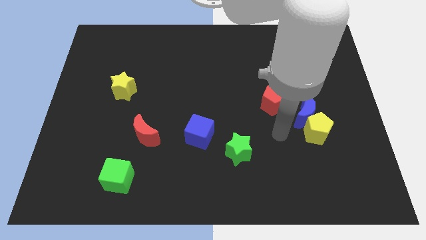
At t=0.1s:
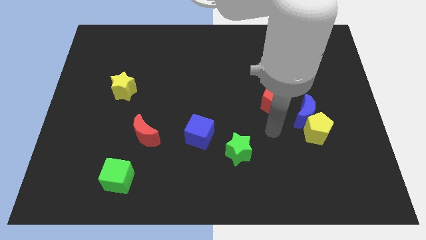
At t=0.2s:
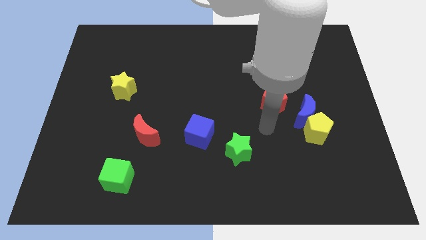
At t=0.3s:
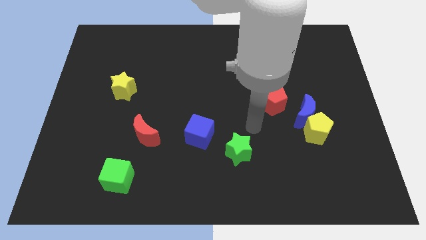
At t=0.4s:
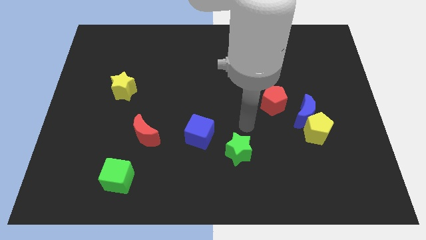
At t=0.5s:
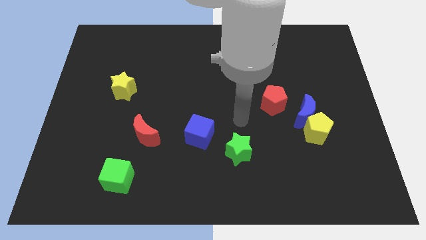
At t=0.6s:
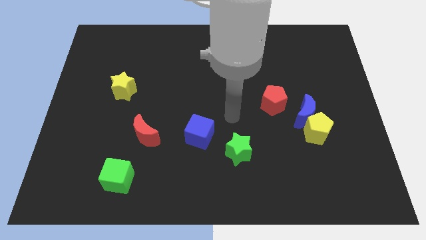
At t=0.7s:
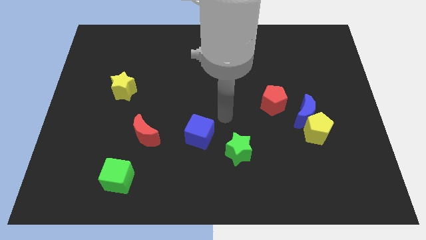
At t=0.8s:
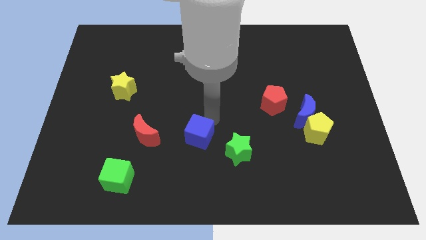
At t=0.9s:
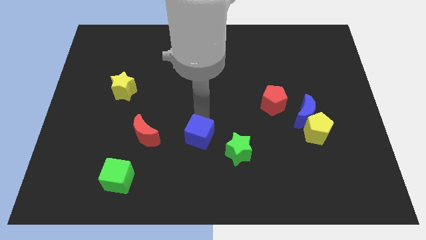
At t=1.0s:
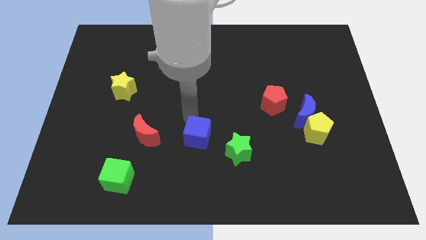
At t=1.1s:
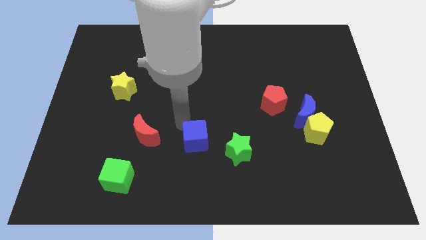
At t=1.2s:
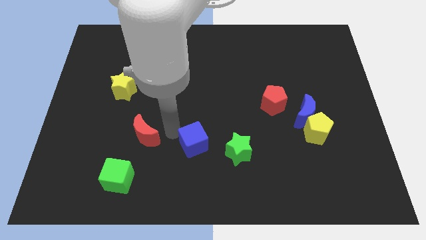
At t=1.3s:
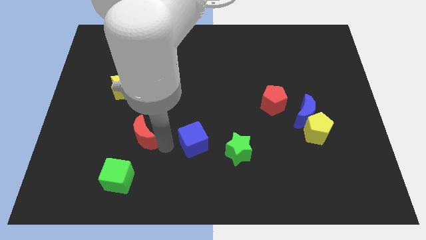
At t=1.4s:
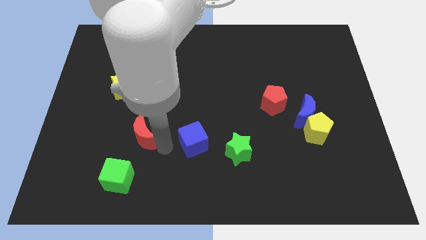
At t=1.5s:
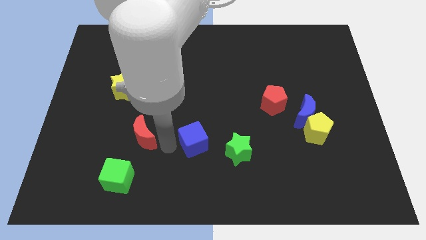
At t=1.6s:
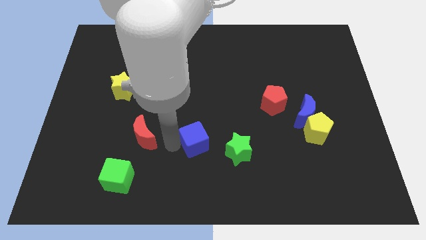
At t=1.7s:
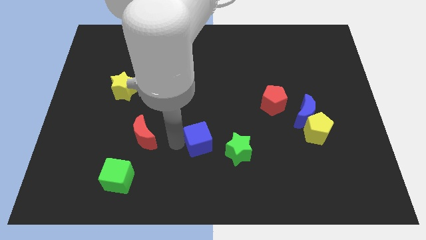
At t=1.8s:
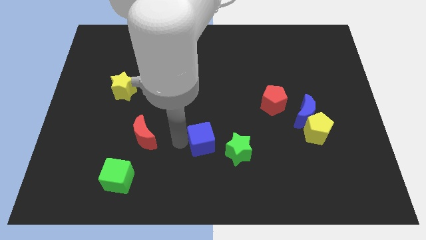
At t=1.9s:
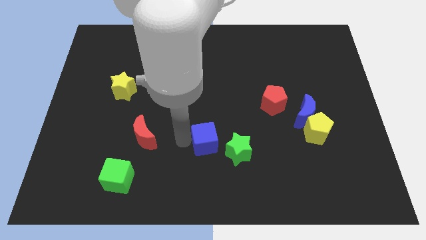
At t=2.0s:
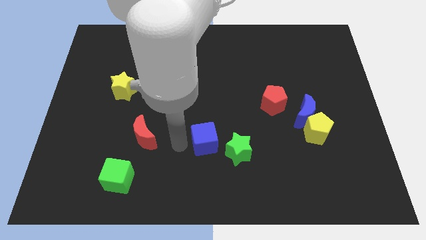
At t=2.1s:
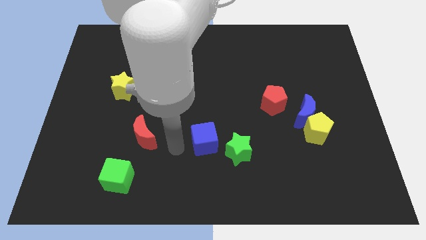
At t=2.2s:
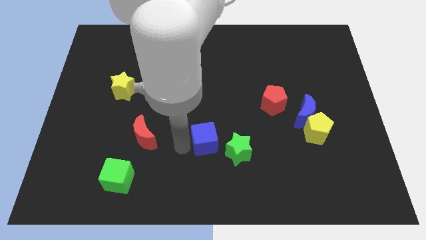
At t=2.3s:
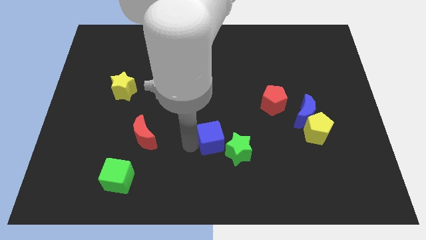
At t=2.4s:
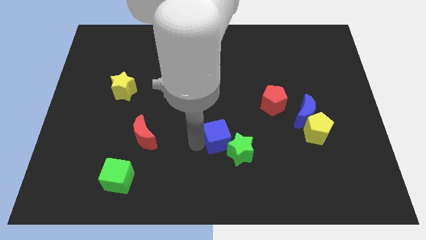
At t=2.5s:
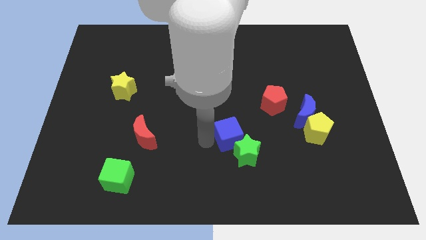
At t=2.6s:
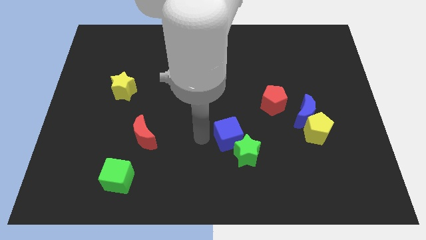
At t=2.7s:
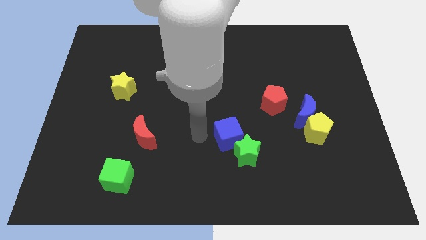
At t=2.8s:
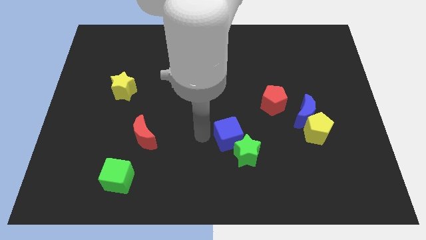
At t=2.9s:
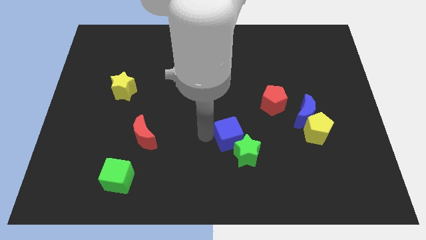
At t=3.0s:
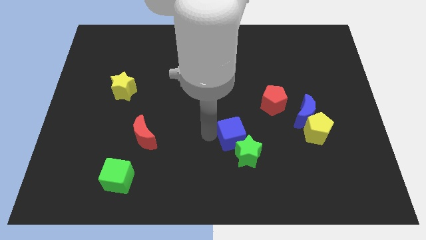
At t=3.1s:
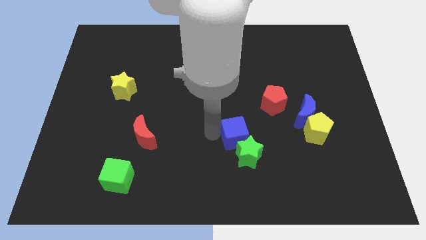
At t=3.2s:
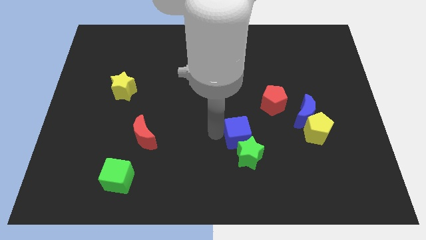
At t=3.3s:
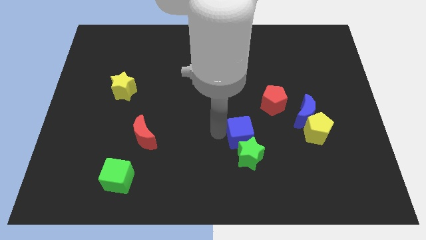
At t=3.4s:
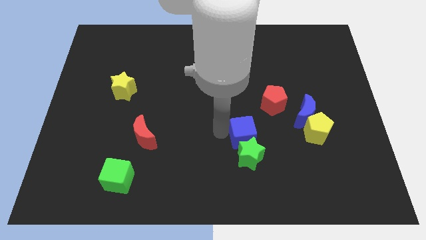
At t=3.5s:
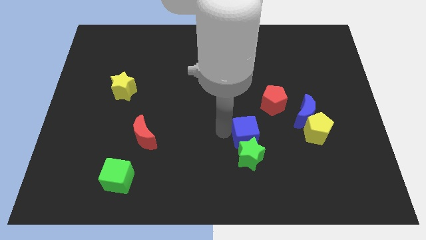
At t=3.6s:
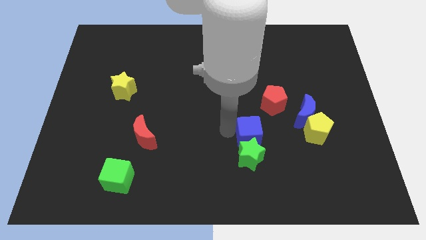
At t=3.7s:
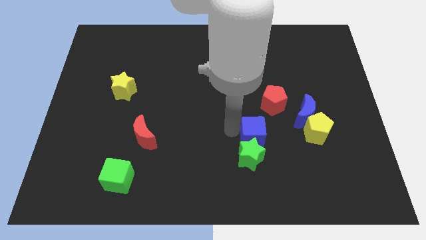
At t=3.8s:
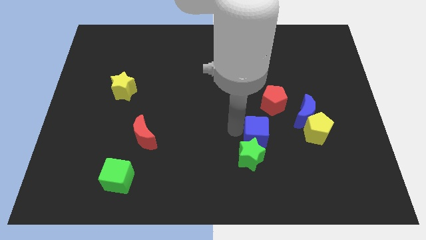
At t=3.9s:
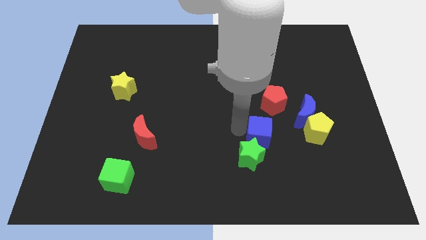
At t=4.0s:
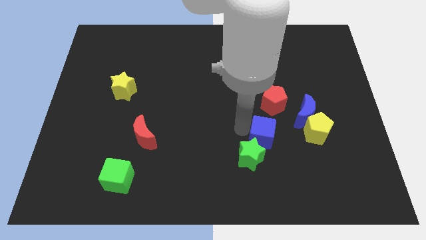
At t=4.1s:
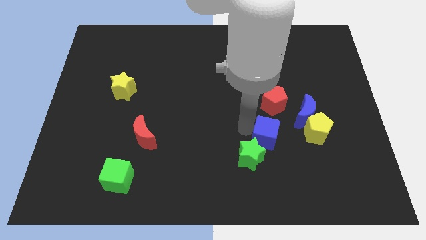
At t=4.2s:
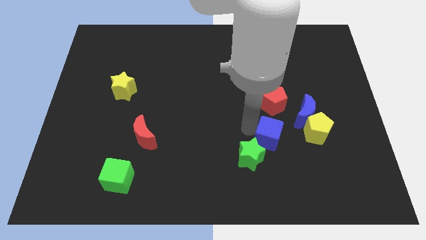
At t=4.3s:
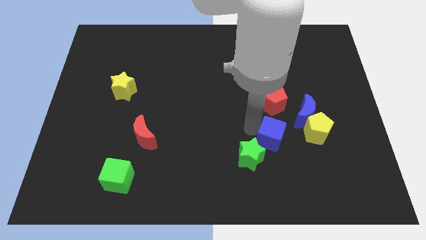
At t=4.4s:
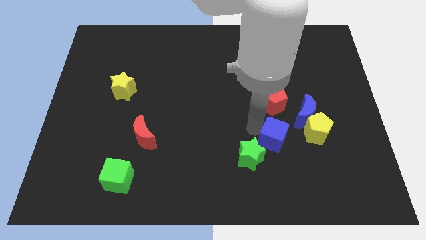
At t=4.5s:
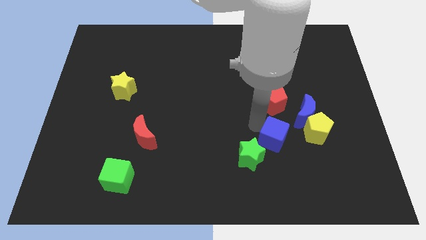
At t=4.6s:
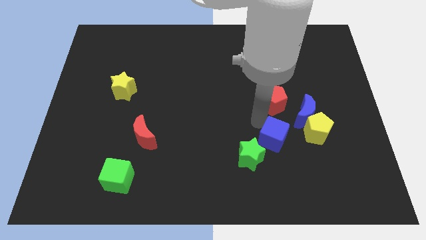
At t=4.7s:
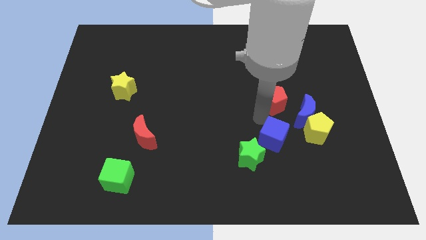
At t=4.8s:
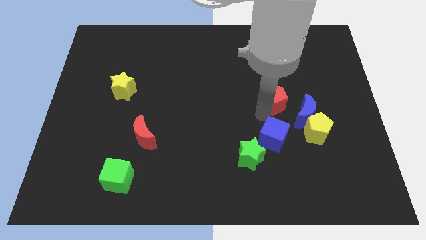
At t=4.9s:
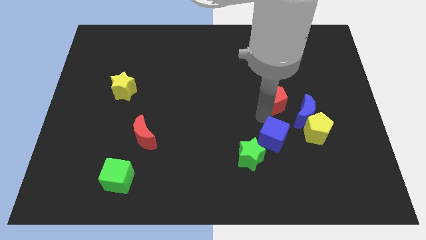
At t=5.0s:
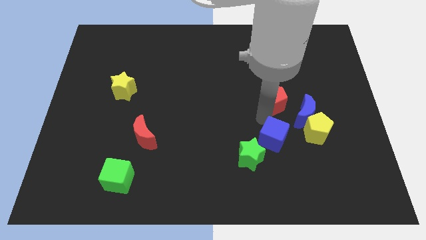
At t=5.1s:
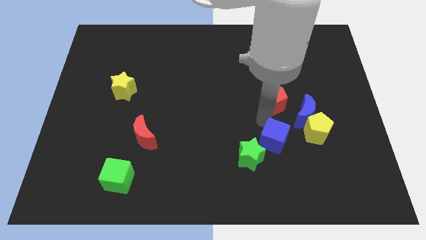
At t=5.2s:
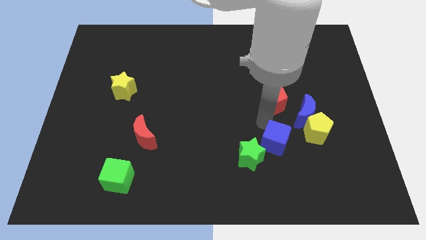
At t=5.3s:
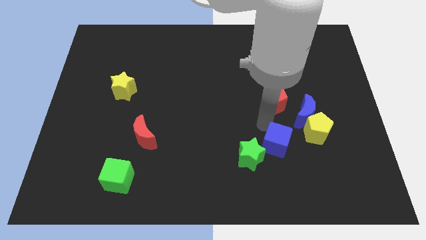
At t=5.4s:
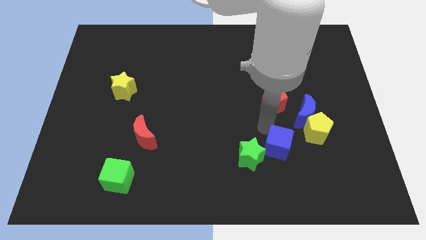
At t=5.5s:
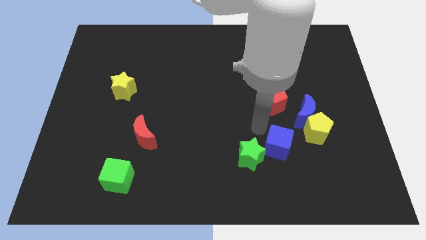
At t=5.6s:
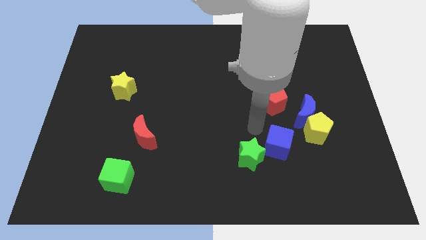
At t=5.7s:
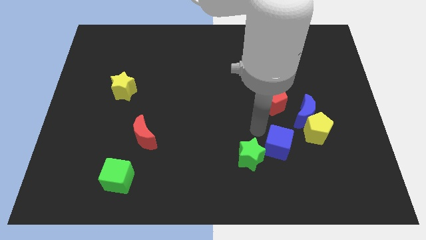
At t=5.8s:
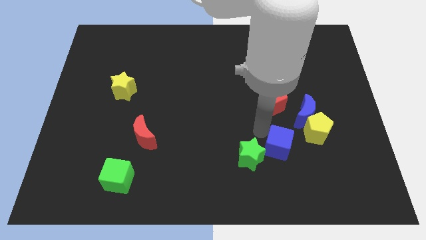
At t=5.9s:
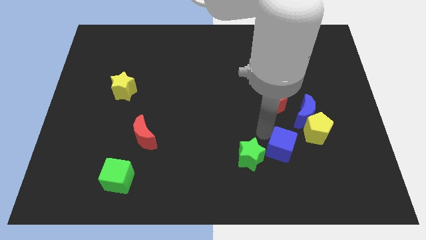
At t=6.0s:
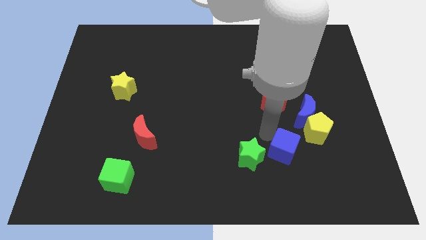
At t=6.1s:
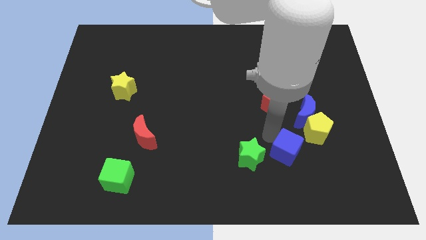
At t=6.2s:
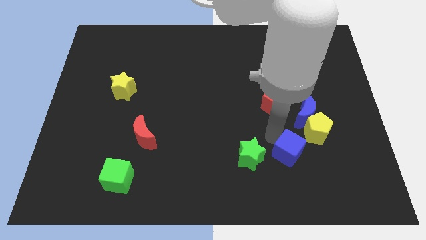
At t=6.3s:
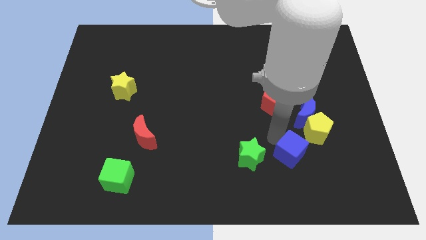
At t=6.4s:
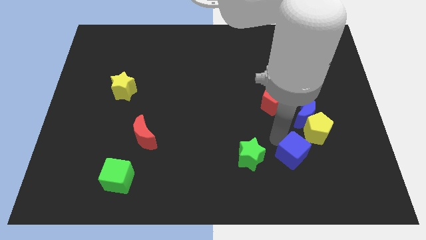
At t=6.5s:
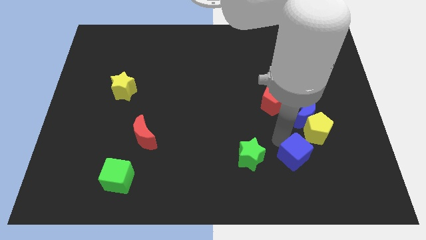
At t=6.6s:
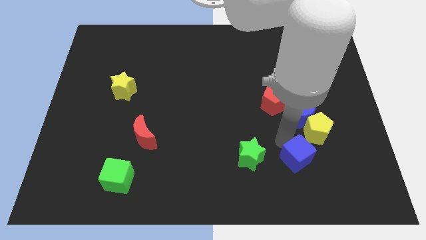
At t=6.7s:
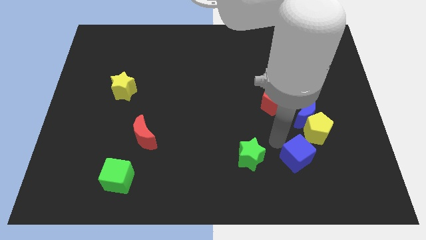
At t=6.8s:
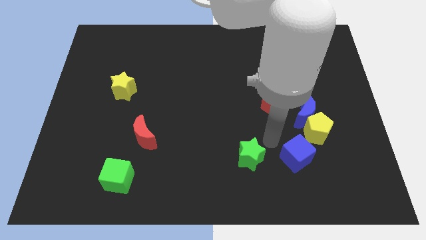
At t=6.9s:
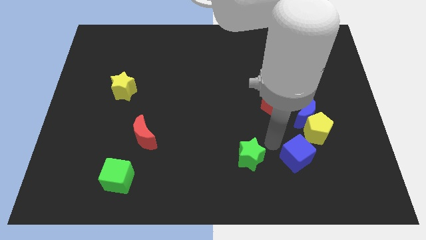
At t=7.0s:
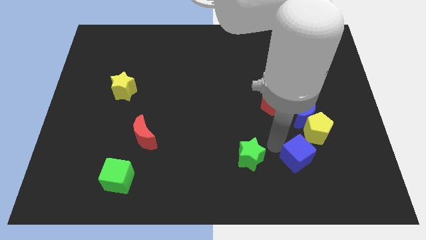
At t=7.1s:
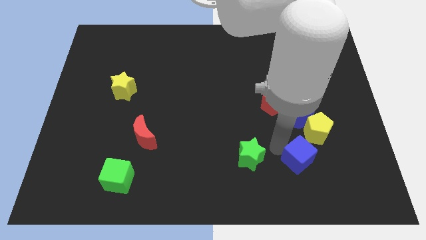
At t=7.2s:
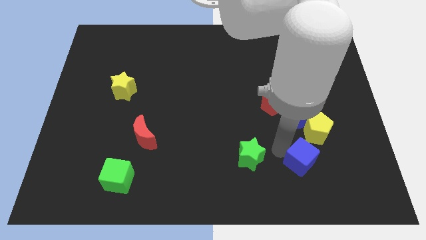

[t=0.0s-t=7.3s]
slide the blue cube below the yellow pentagon
